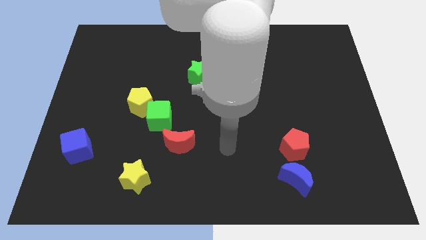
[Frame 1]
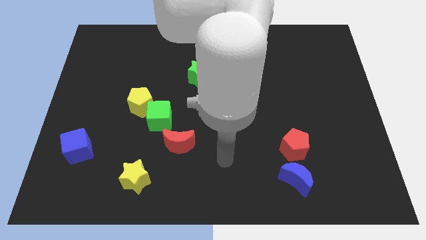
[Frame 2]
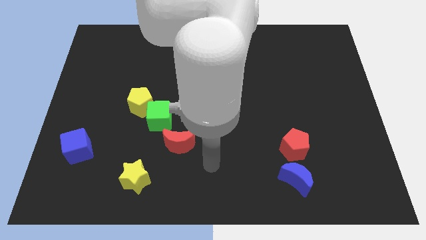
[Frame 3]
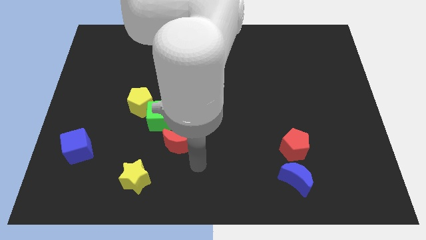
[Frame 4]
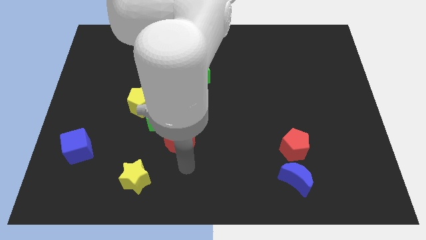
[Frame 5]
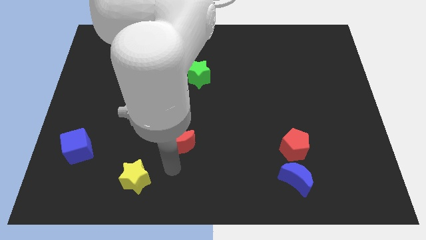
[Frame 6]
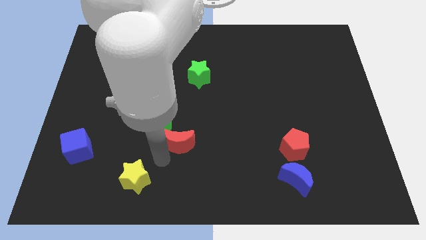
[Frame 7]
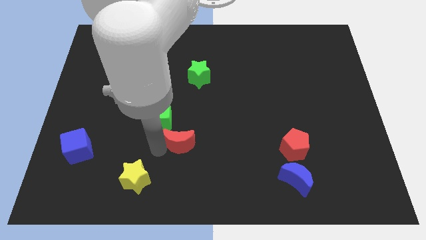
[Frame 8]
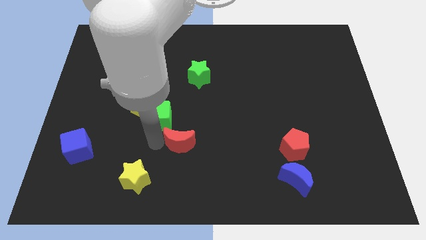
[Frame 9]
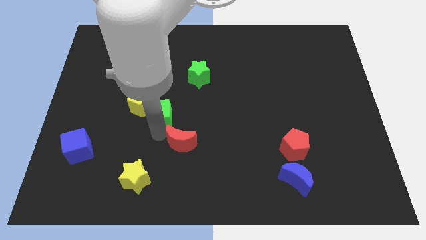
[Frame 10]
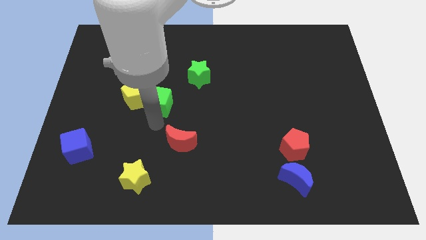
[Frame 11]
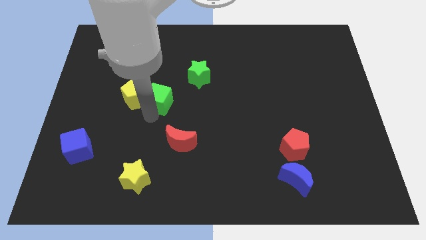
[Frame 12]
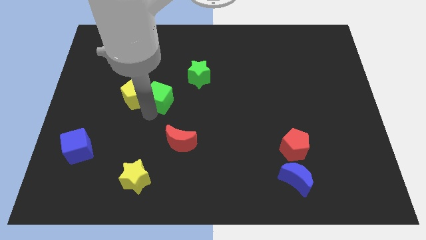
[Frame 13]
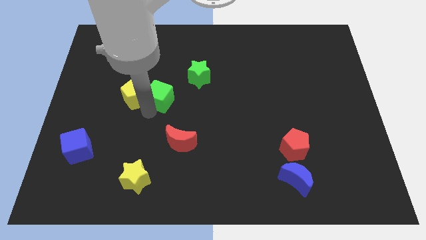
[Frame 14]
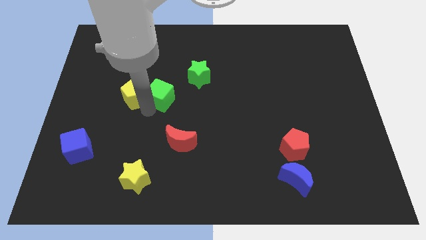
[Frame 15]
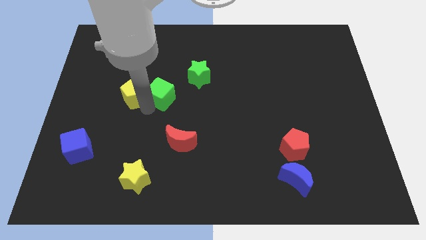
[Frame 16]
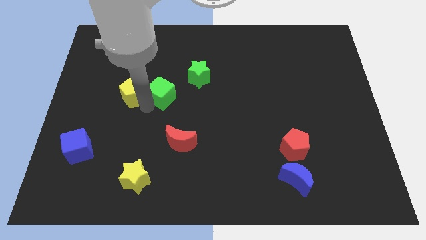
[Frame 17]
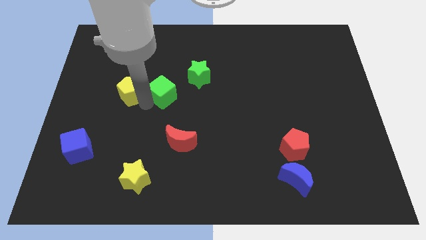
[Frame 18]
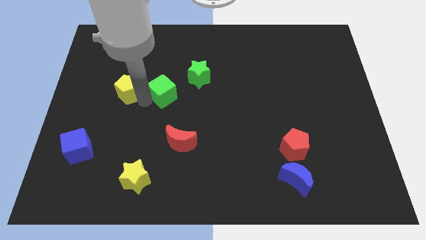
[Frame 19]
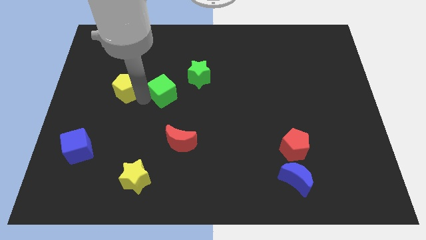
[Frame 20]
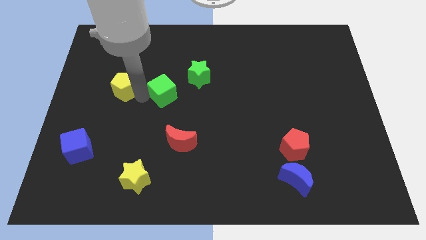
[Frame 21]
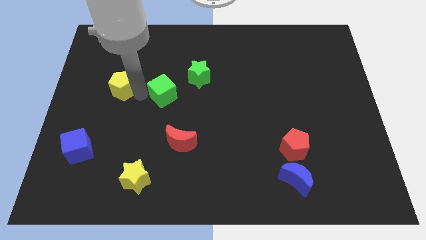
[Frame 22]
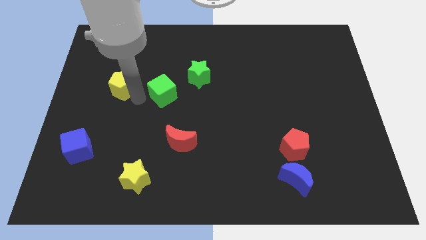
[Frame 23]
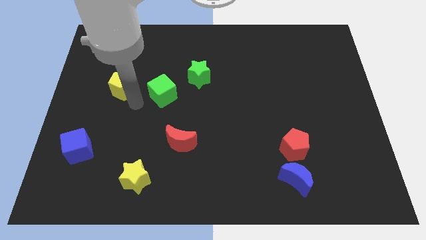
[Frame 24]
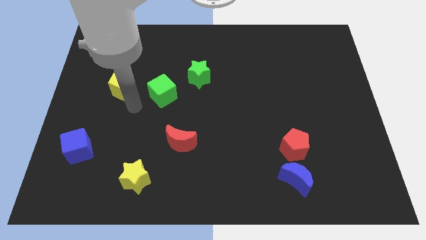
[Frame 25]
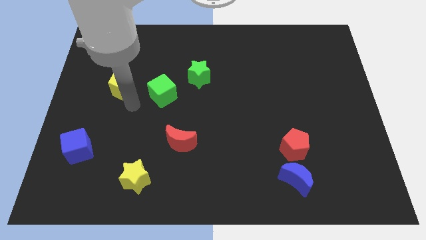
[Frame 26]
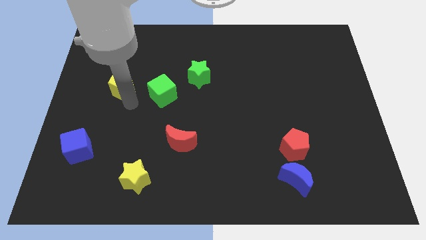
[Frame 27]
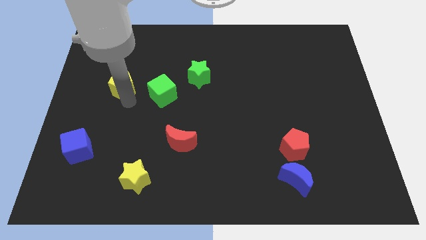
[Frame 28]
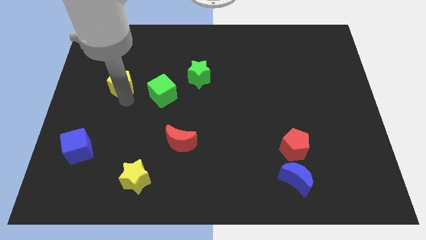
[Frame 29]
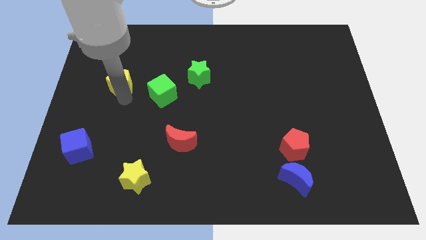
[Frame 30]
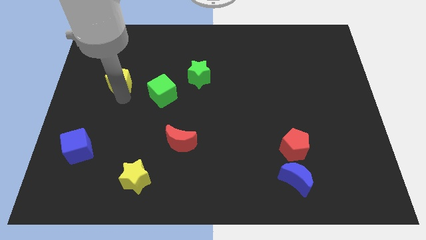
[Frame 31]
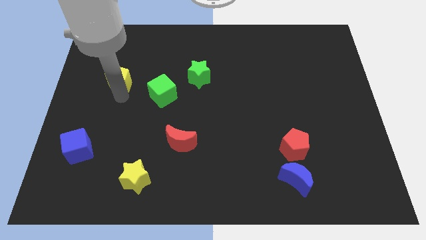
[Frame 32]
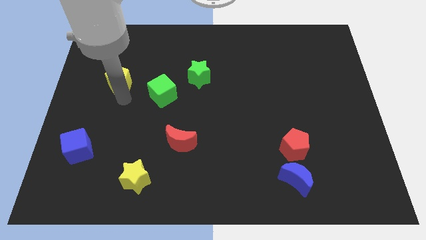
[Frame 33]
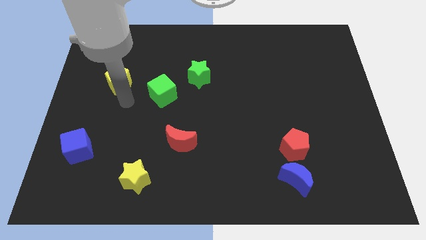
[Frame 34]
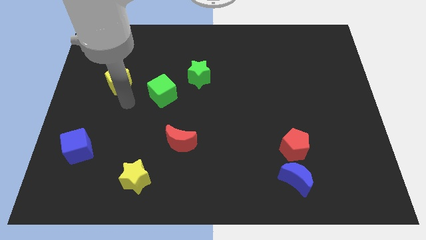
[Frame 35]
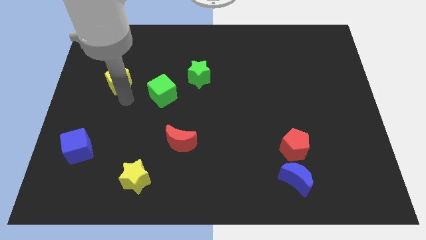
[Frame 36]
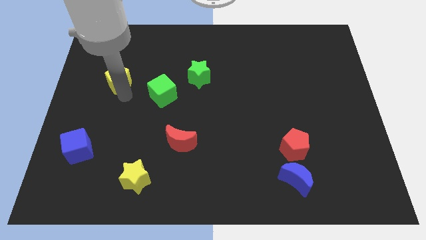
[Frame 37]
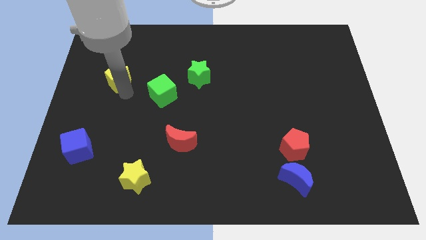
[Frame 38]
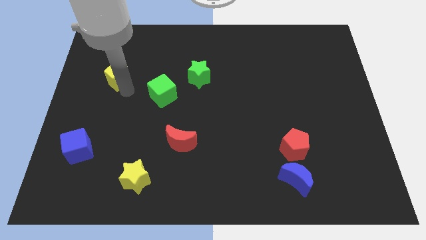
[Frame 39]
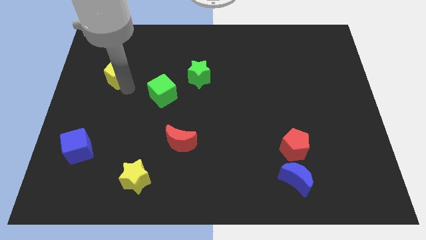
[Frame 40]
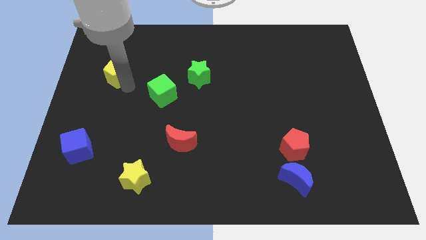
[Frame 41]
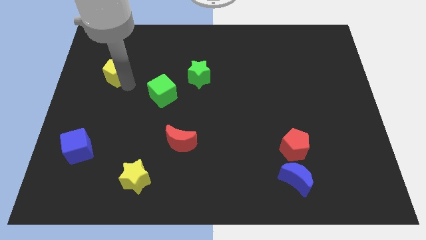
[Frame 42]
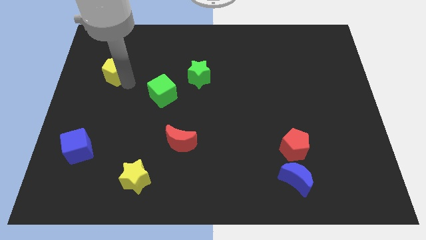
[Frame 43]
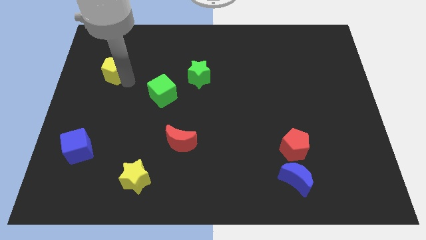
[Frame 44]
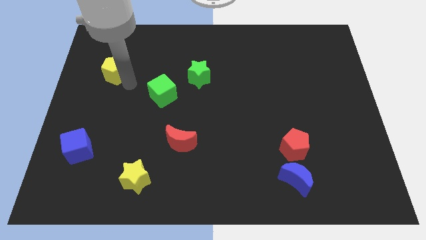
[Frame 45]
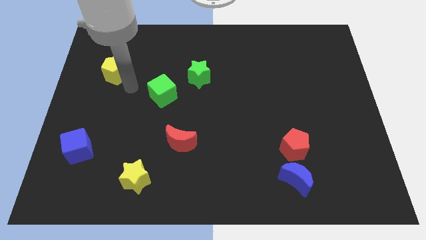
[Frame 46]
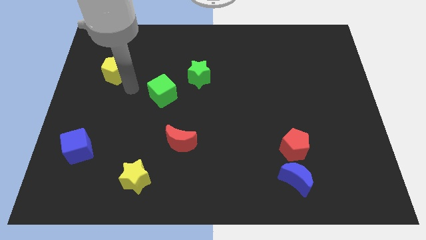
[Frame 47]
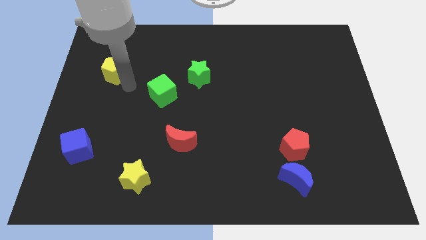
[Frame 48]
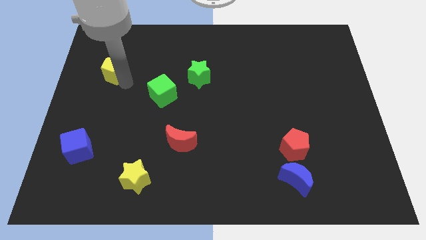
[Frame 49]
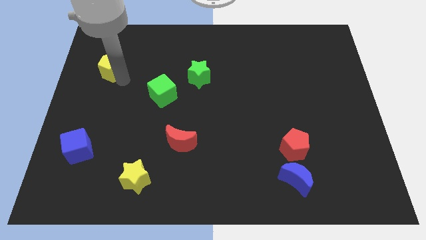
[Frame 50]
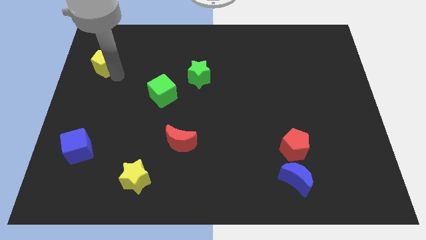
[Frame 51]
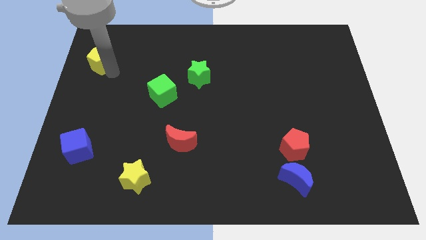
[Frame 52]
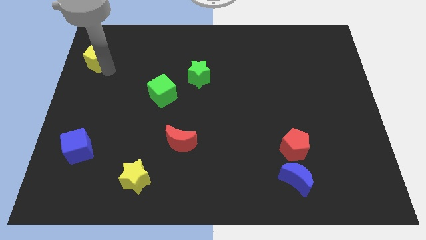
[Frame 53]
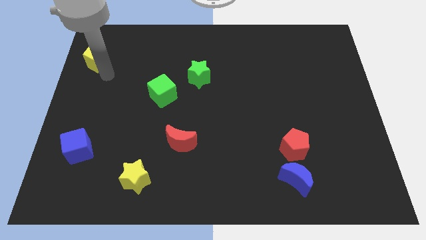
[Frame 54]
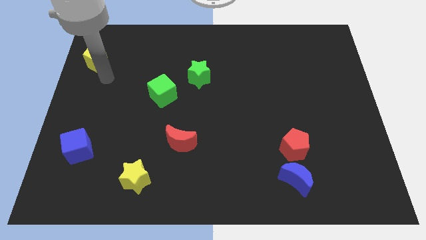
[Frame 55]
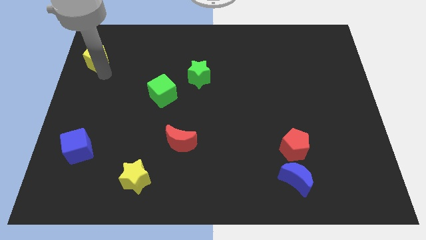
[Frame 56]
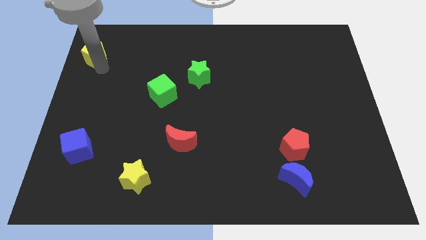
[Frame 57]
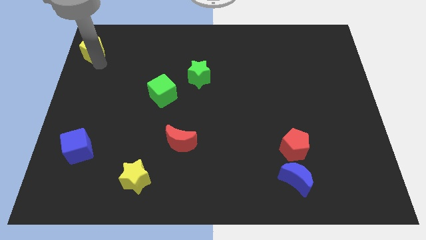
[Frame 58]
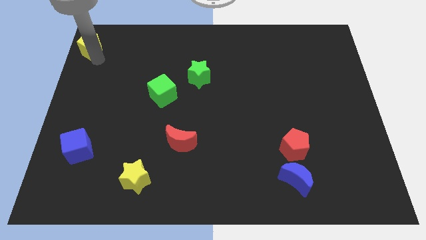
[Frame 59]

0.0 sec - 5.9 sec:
put the yellow pentagon to the top left of the board
